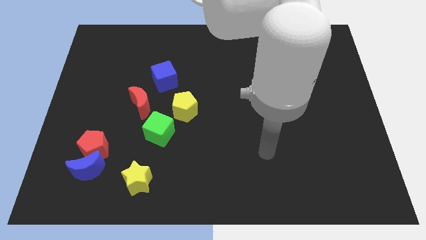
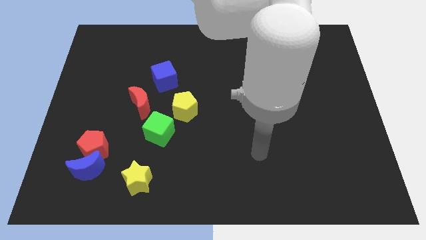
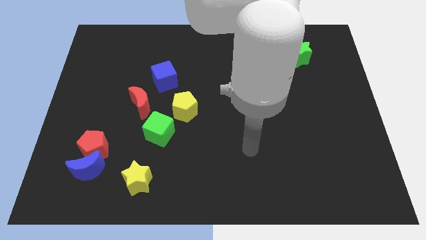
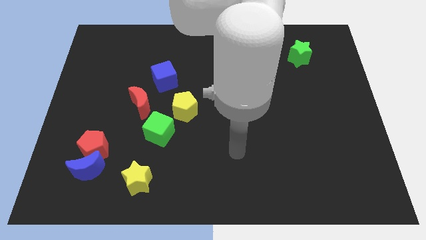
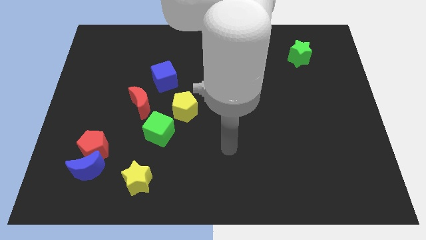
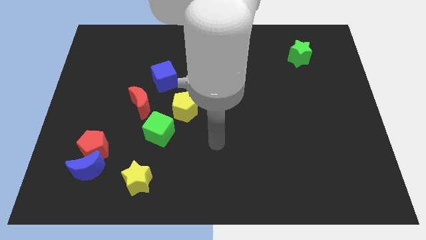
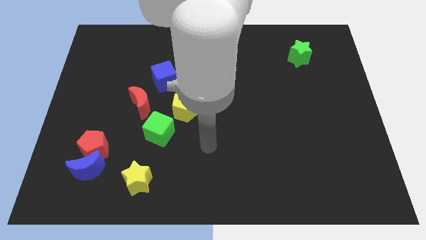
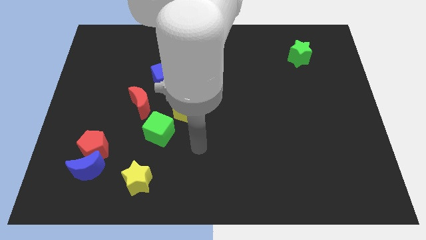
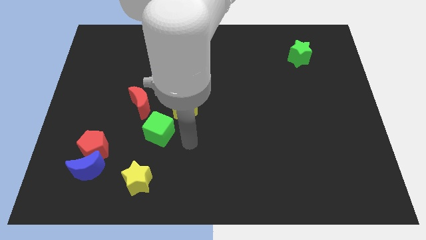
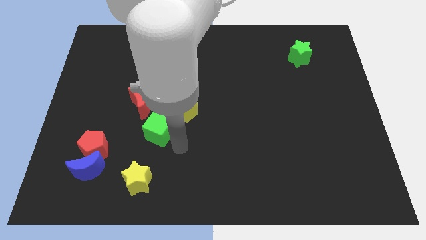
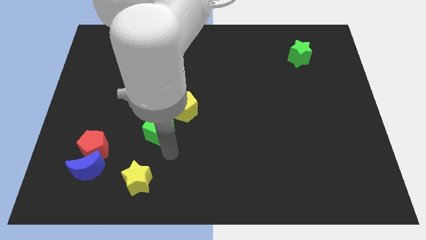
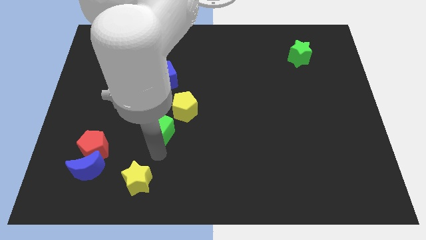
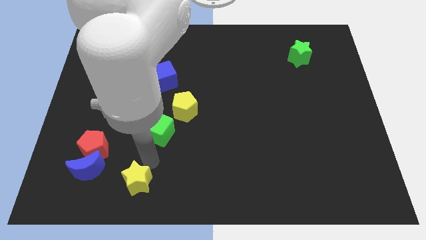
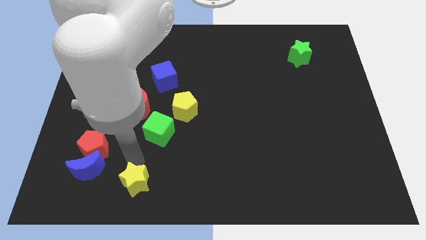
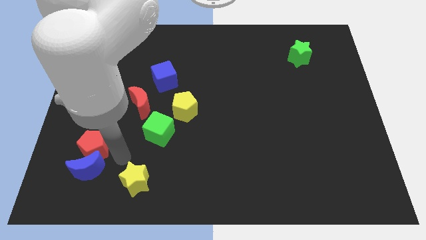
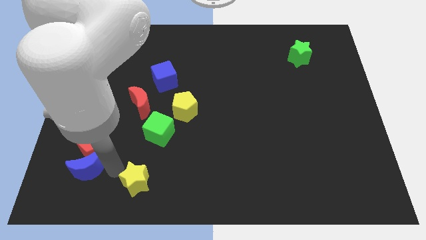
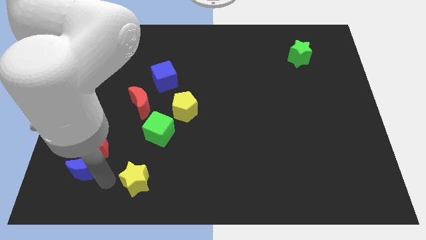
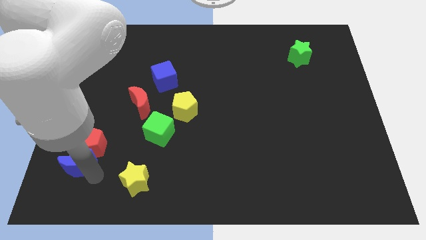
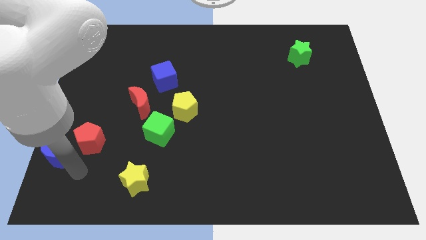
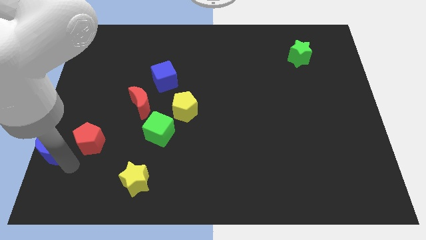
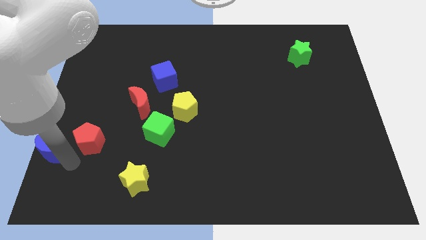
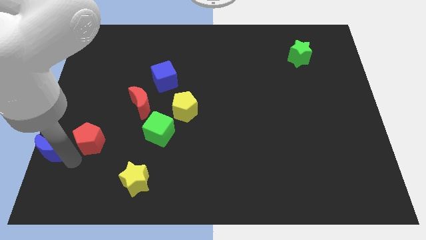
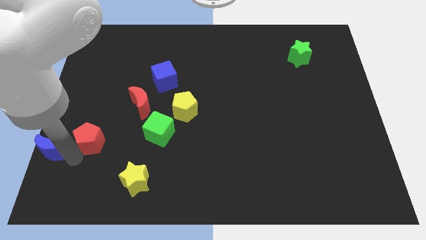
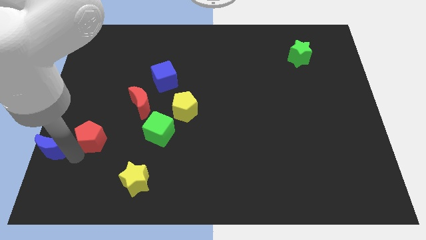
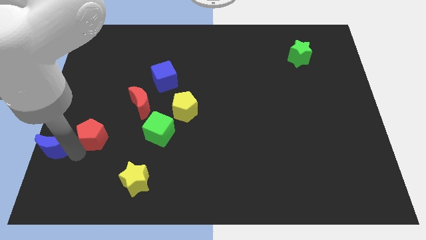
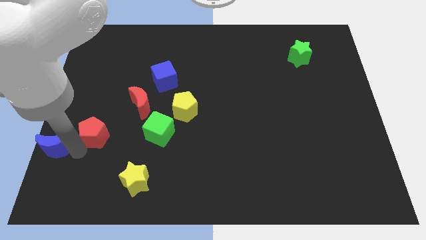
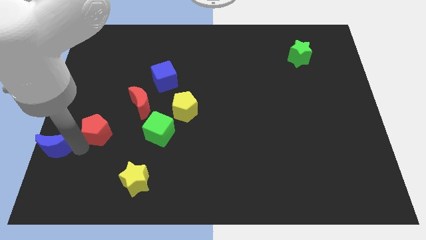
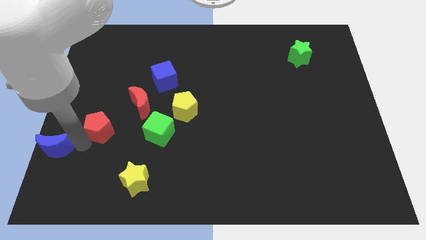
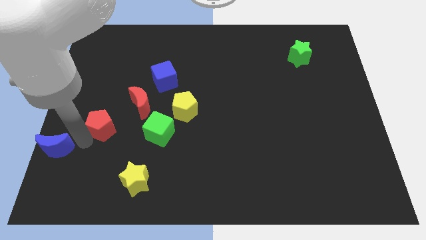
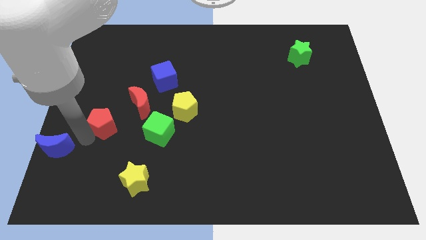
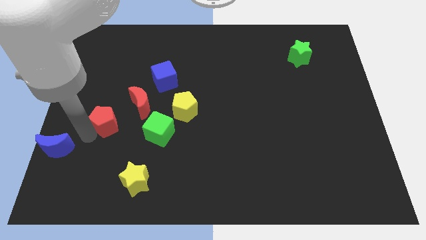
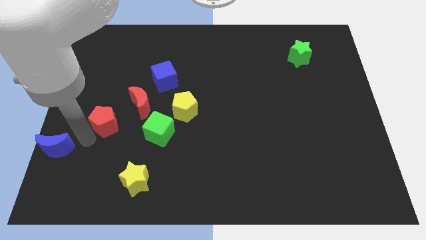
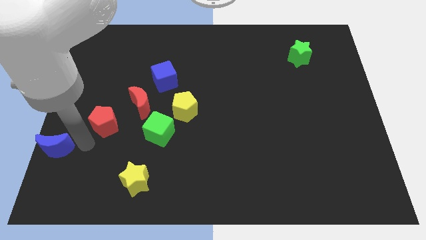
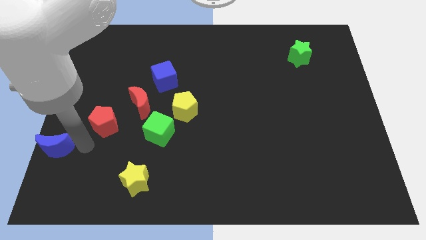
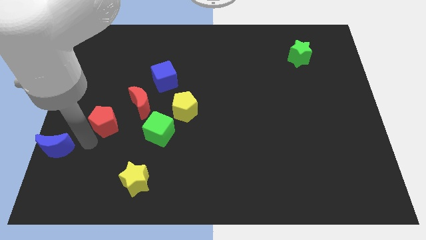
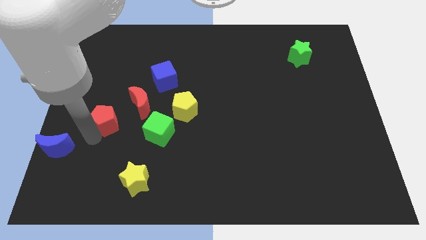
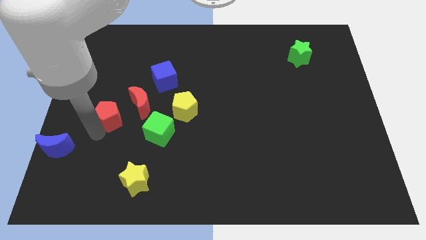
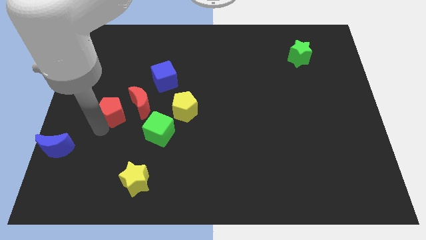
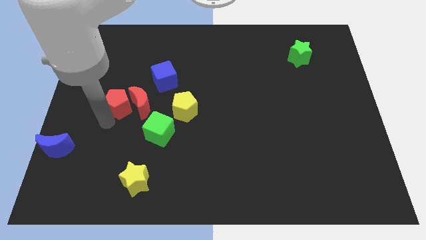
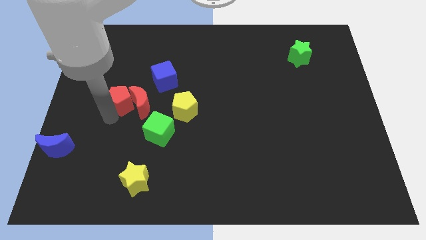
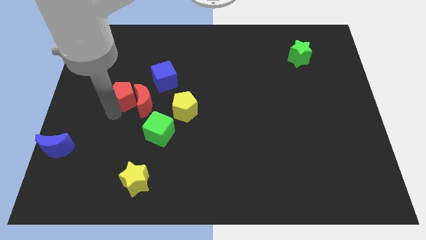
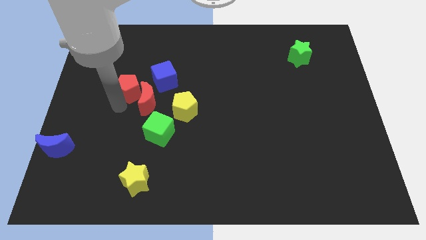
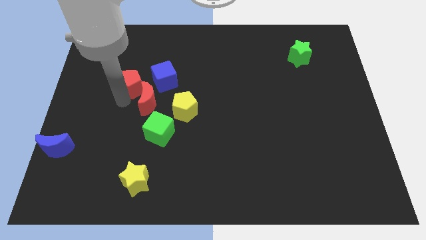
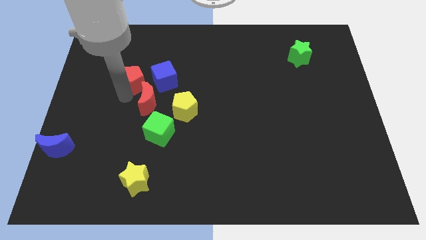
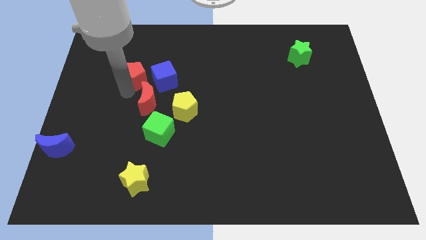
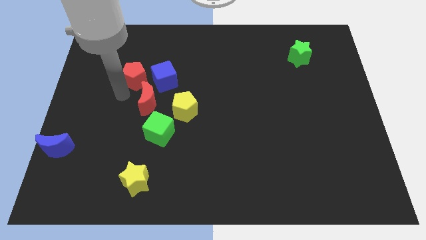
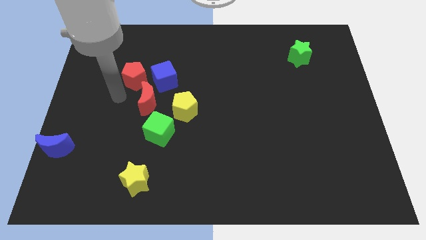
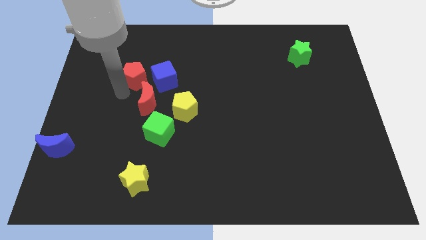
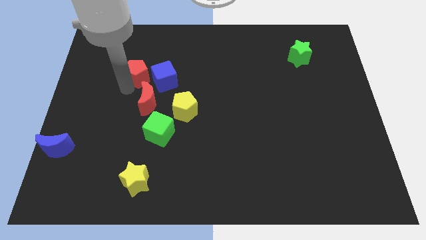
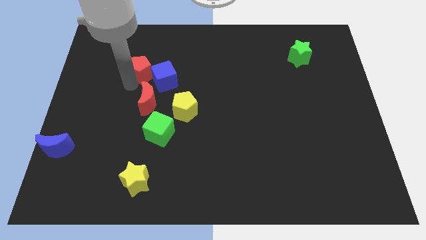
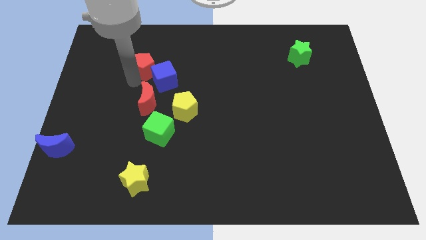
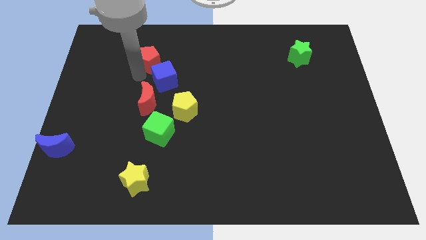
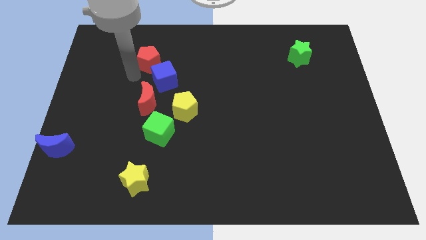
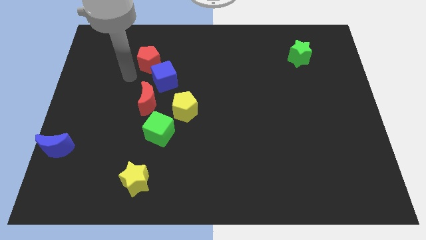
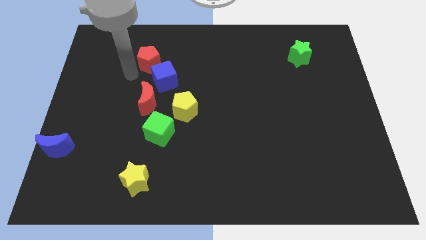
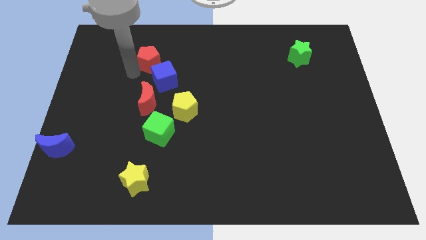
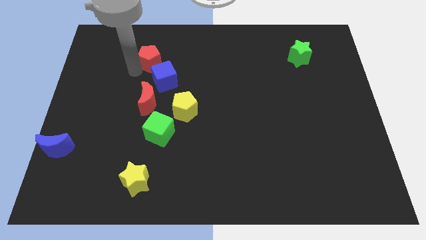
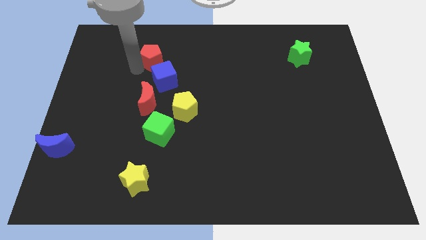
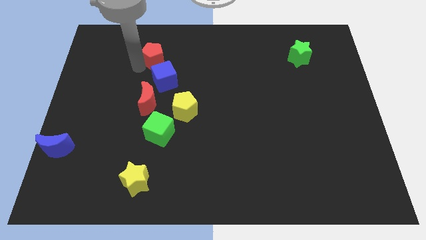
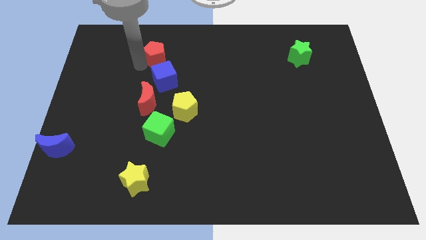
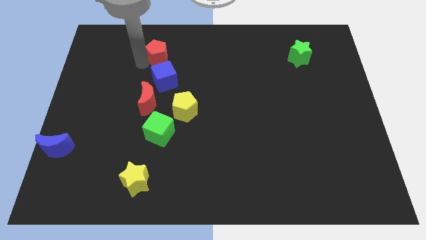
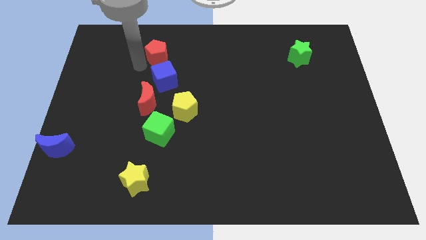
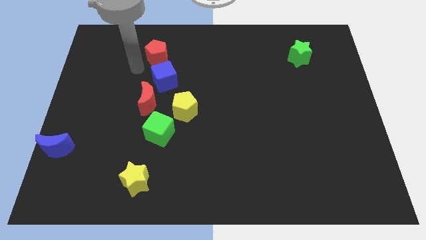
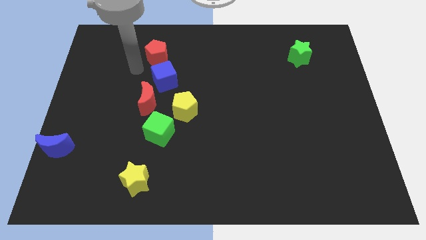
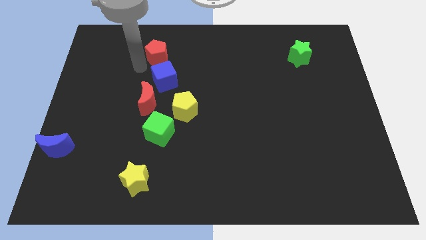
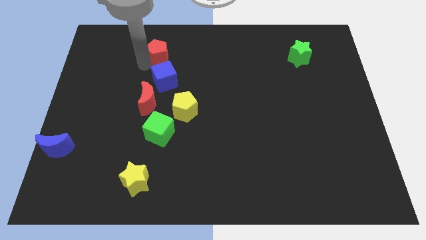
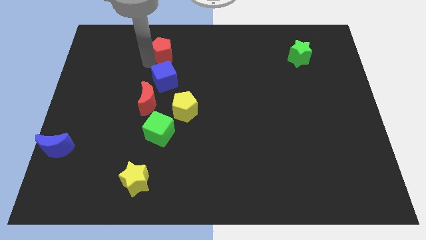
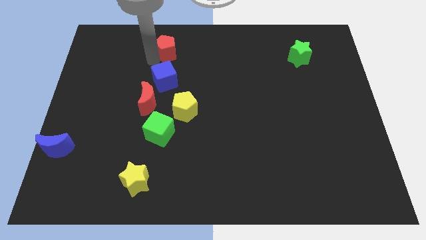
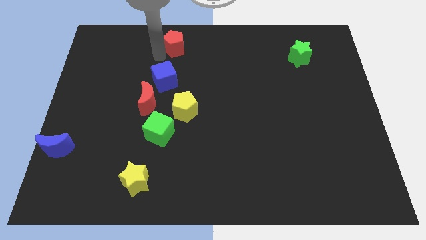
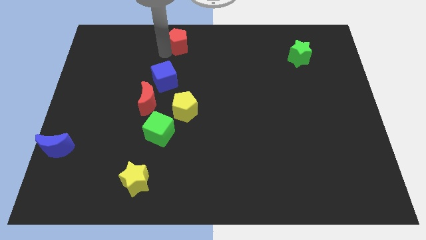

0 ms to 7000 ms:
push the red pentagon to the towards your base

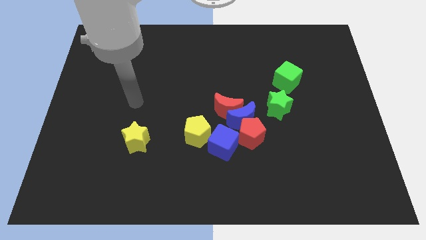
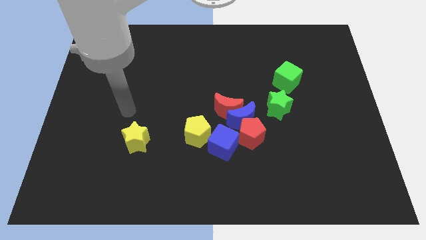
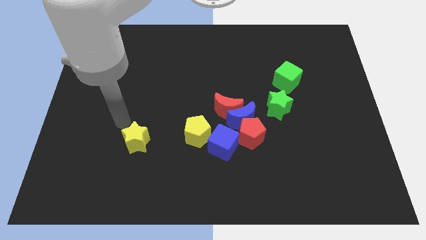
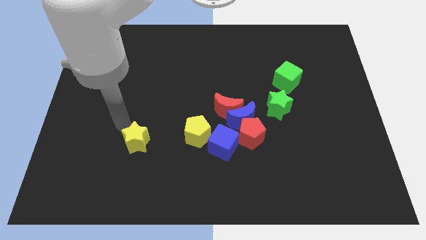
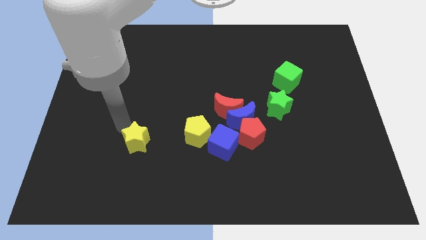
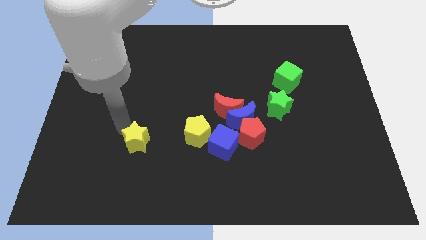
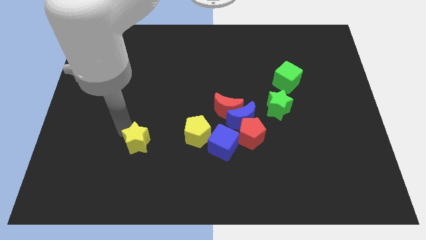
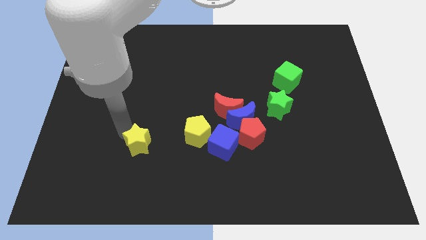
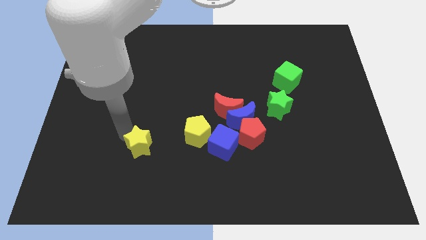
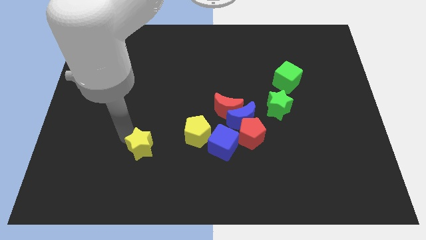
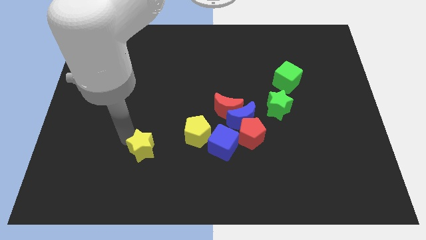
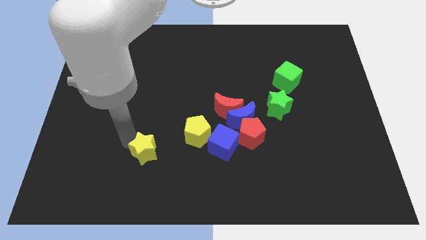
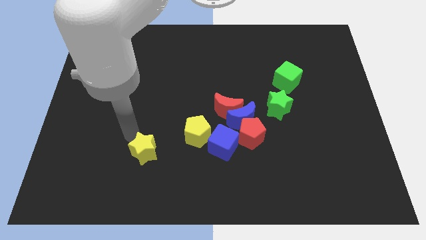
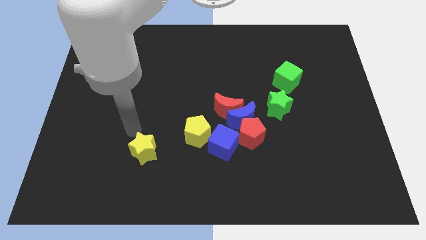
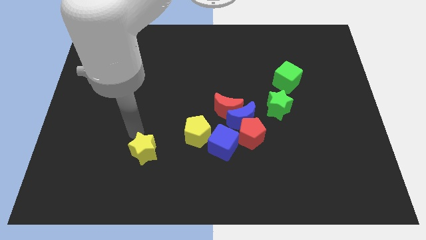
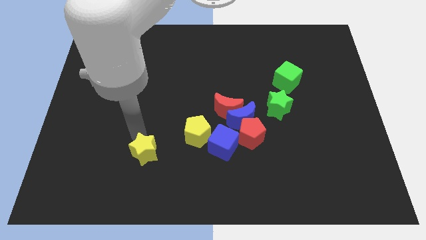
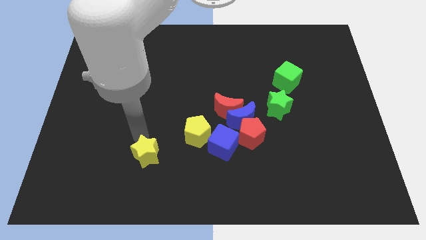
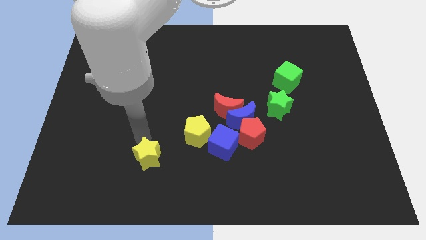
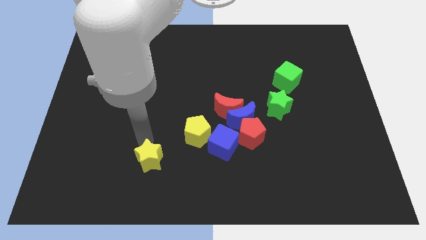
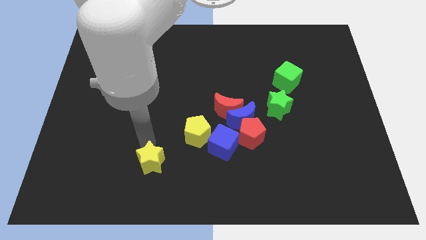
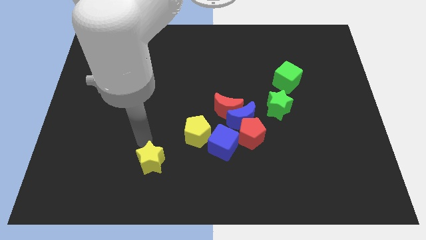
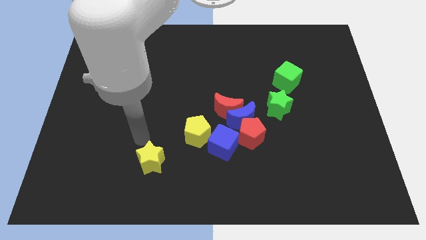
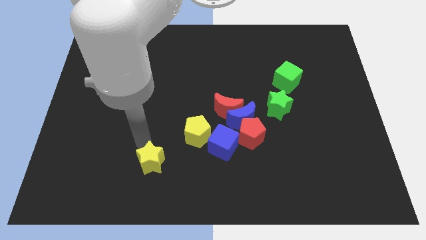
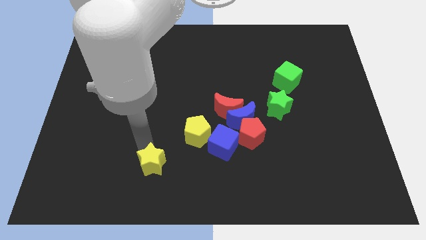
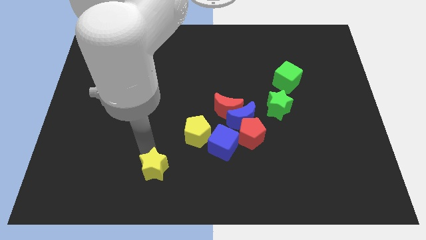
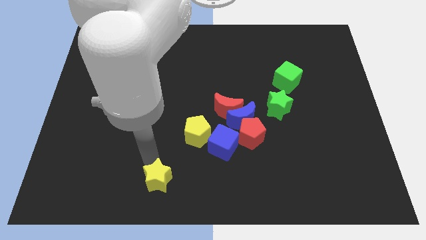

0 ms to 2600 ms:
push the yellow star to the bottom side
